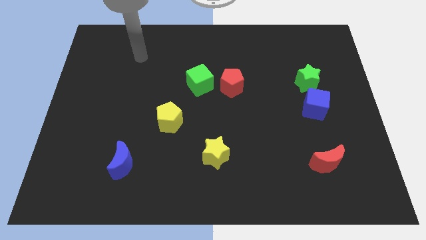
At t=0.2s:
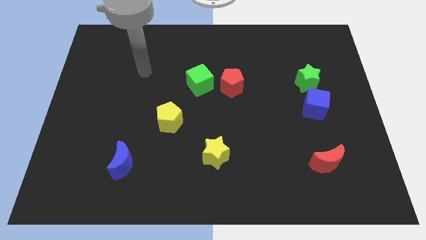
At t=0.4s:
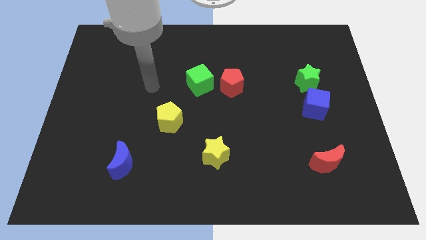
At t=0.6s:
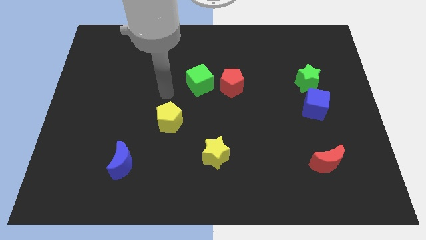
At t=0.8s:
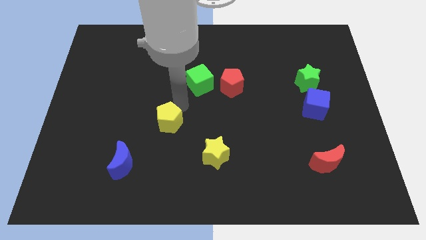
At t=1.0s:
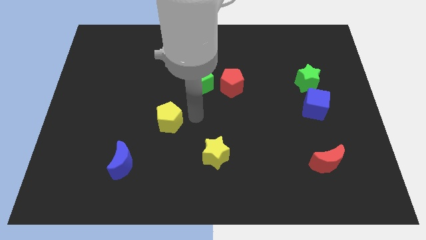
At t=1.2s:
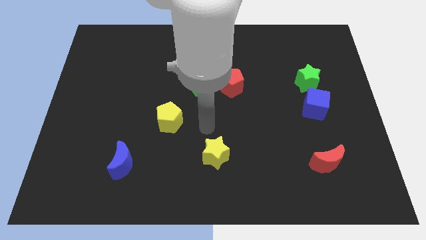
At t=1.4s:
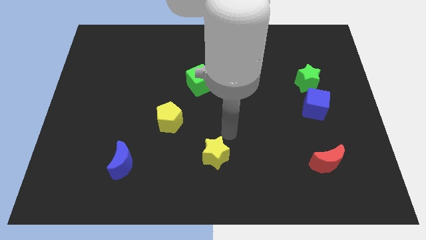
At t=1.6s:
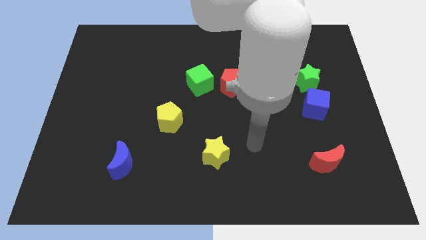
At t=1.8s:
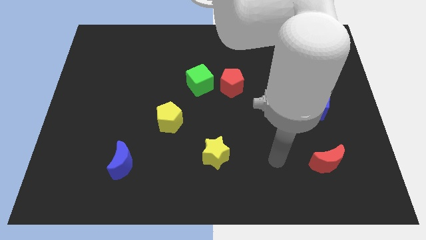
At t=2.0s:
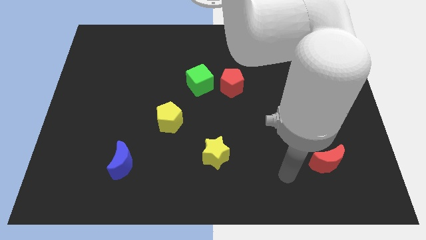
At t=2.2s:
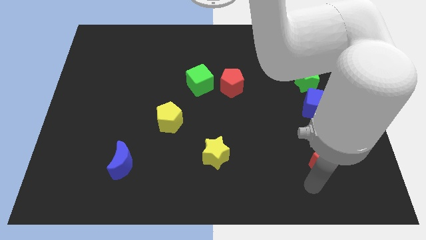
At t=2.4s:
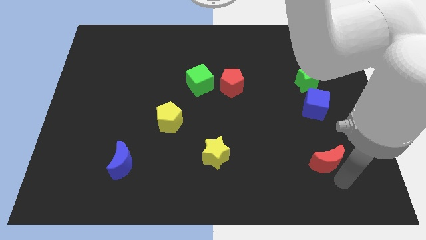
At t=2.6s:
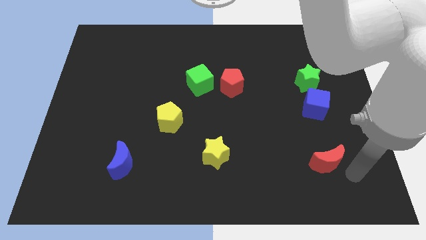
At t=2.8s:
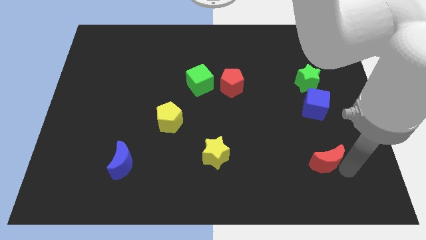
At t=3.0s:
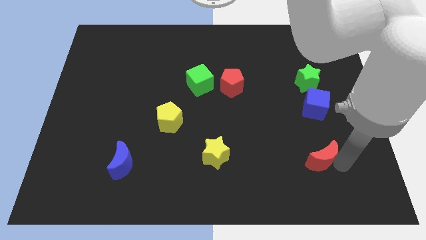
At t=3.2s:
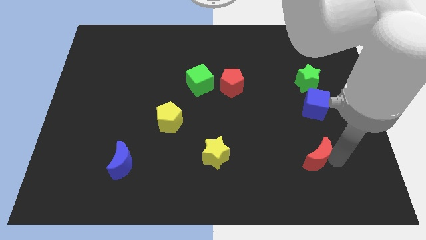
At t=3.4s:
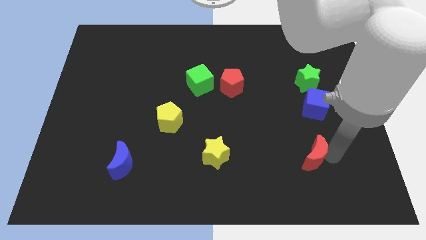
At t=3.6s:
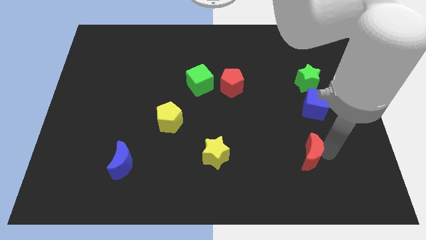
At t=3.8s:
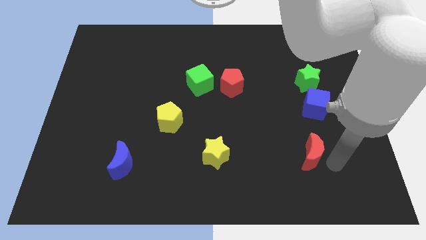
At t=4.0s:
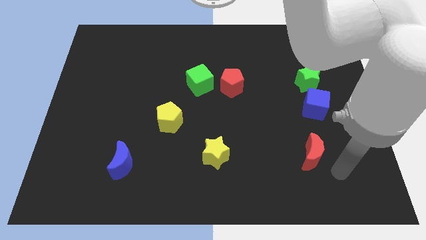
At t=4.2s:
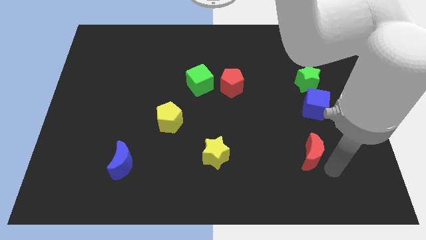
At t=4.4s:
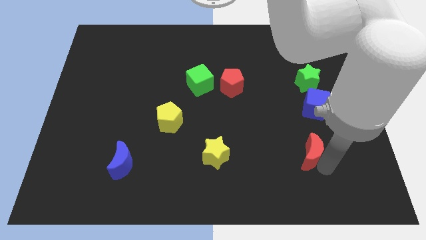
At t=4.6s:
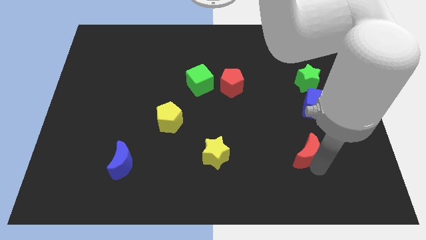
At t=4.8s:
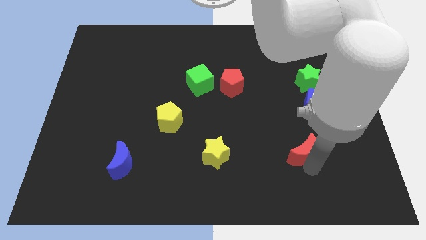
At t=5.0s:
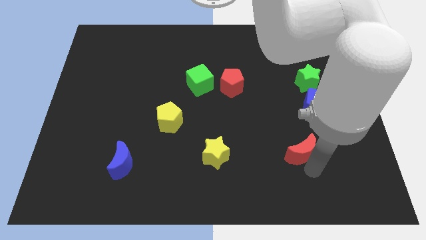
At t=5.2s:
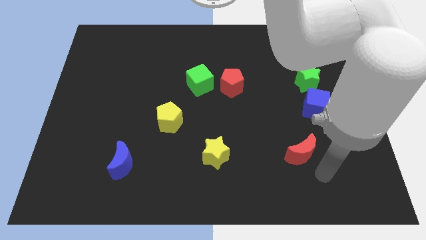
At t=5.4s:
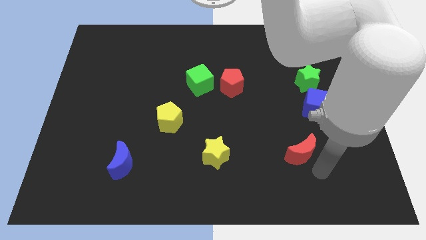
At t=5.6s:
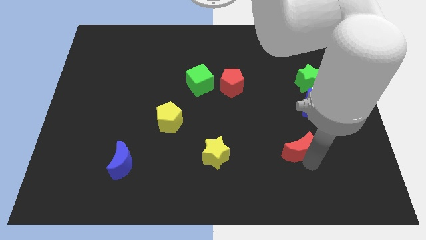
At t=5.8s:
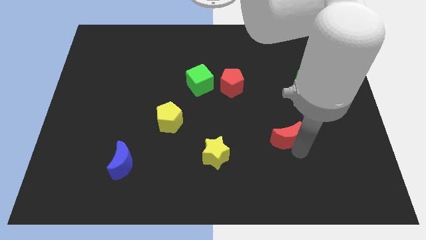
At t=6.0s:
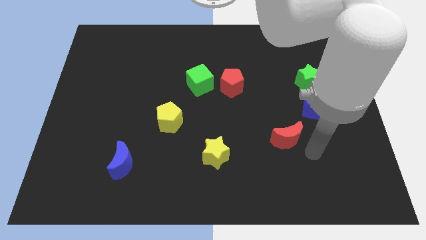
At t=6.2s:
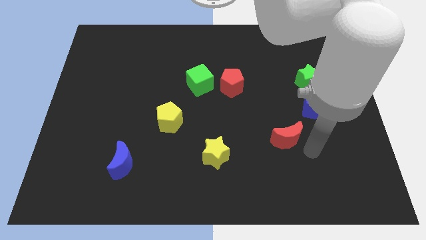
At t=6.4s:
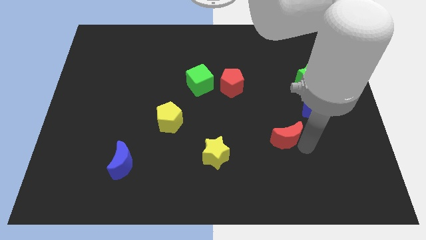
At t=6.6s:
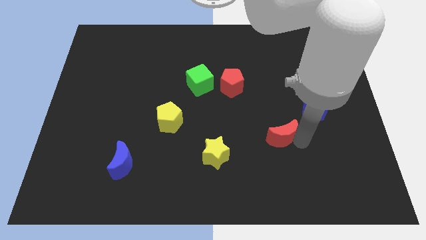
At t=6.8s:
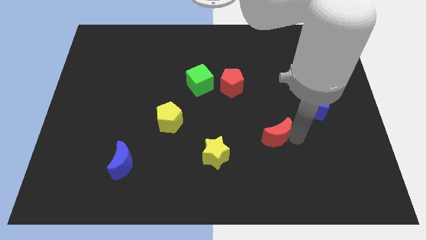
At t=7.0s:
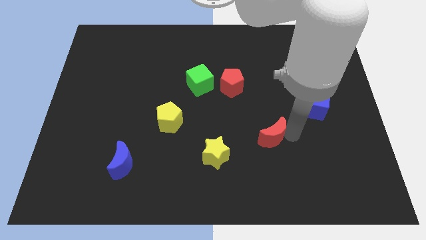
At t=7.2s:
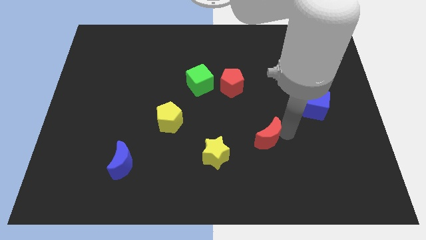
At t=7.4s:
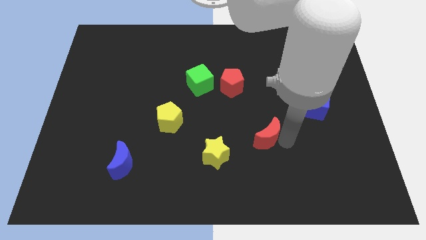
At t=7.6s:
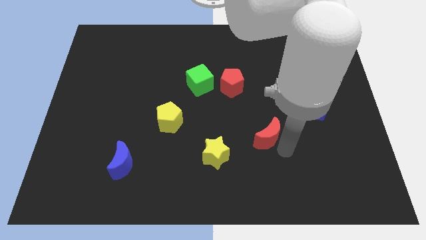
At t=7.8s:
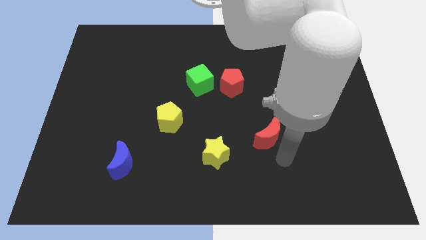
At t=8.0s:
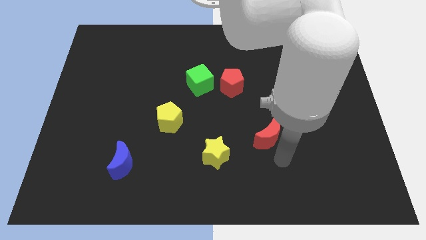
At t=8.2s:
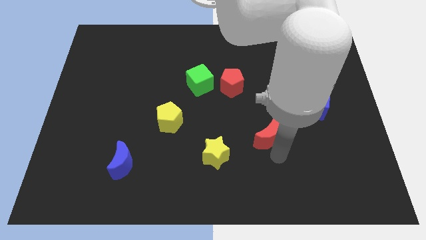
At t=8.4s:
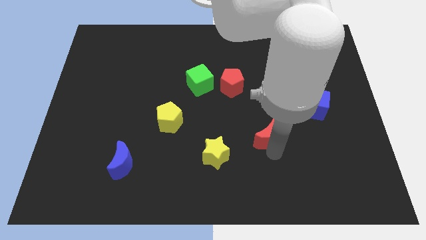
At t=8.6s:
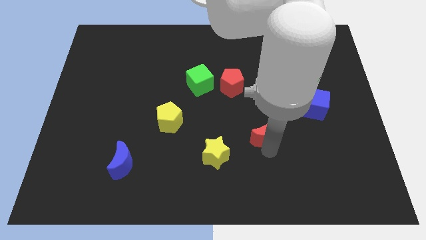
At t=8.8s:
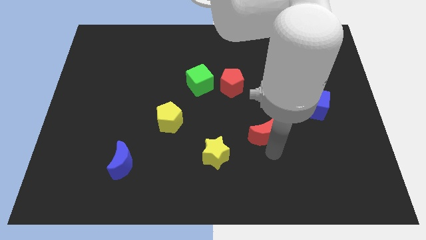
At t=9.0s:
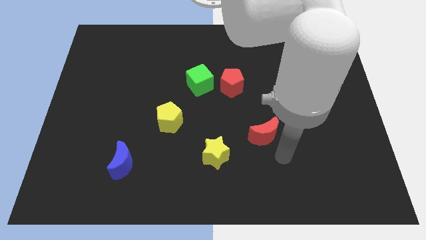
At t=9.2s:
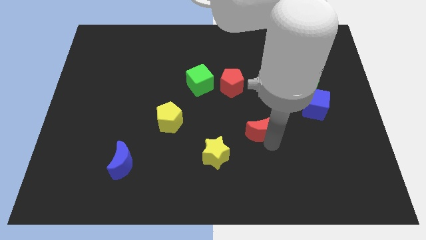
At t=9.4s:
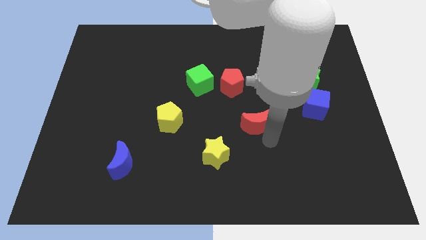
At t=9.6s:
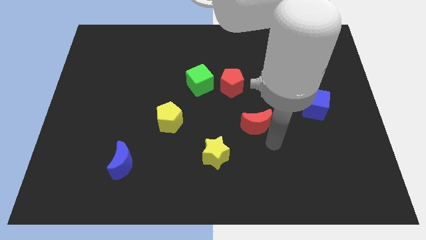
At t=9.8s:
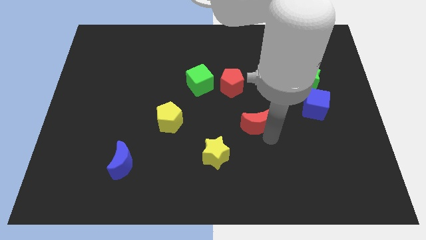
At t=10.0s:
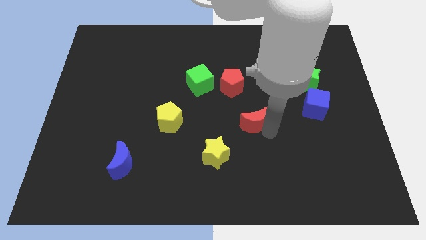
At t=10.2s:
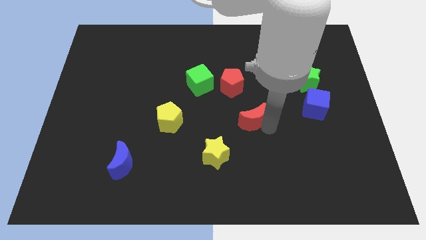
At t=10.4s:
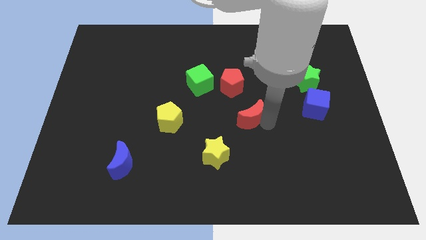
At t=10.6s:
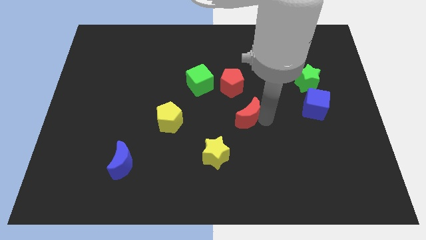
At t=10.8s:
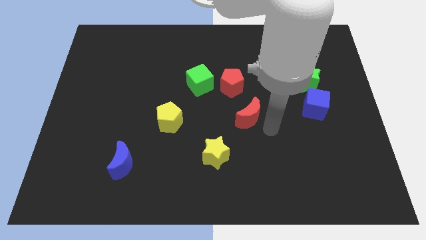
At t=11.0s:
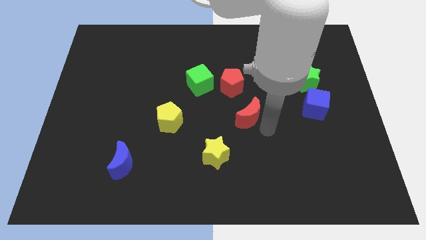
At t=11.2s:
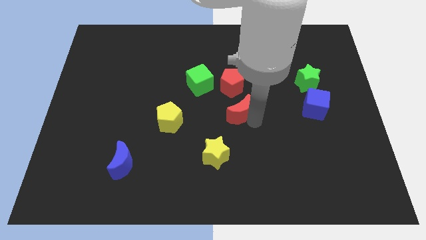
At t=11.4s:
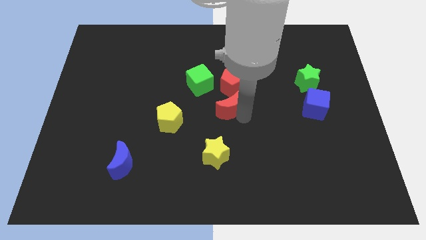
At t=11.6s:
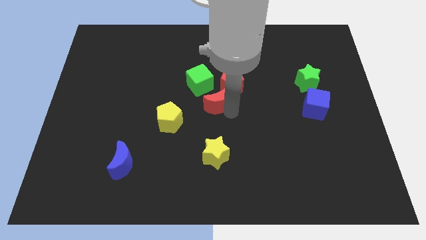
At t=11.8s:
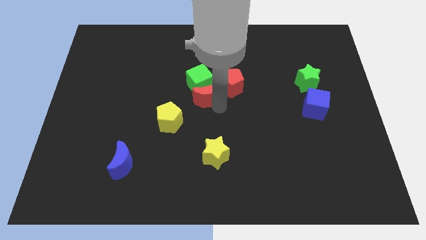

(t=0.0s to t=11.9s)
move the red moon towards the green cube

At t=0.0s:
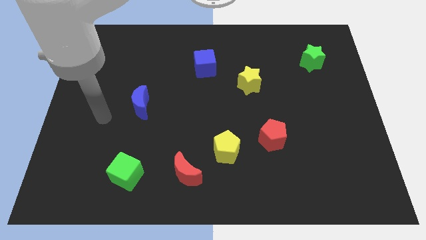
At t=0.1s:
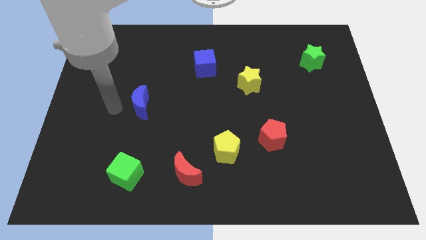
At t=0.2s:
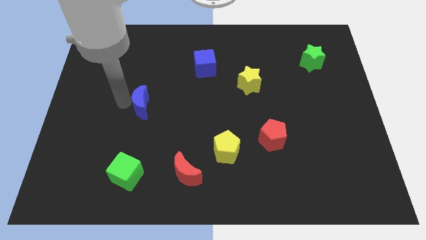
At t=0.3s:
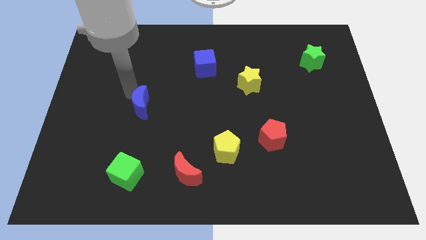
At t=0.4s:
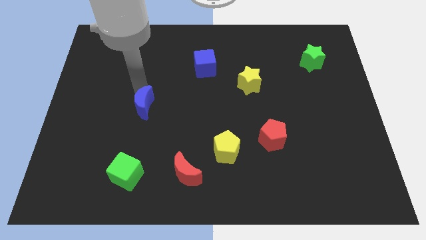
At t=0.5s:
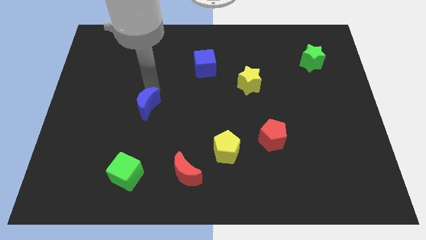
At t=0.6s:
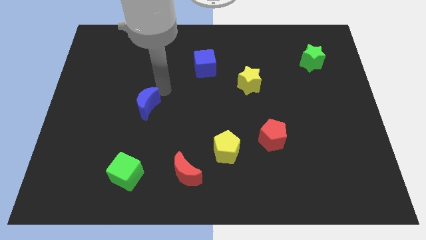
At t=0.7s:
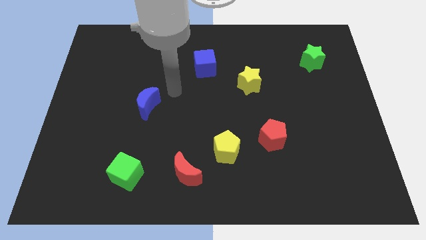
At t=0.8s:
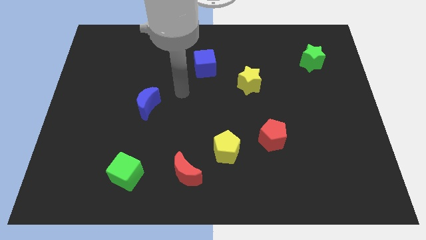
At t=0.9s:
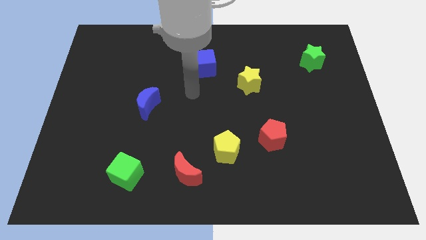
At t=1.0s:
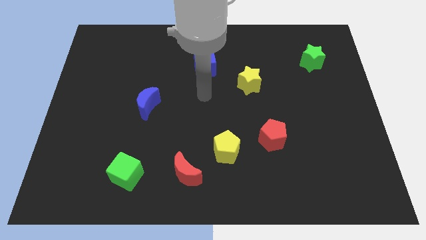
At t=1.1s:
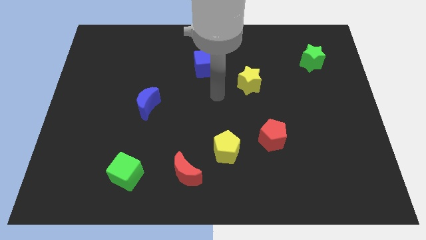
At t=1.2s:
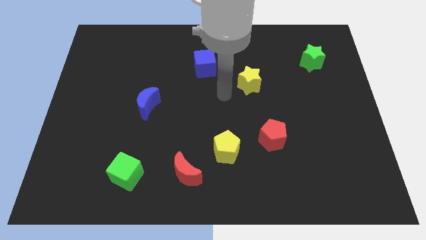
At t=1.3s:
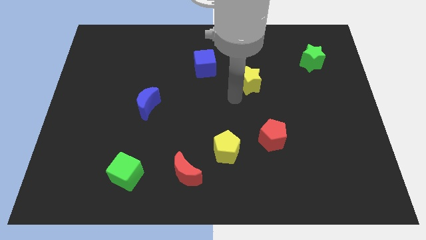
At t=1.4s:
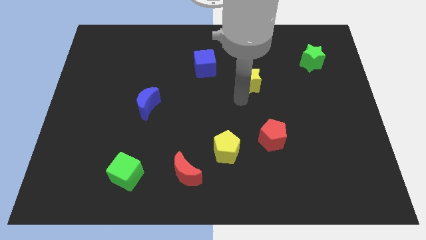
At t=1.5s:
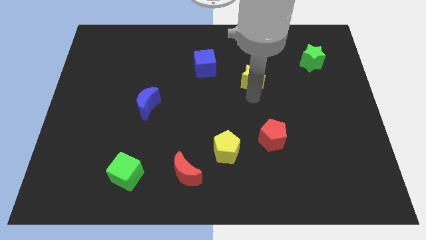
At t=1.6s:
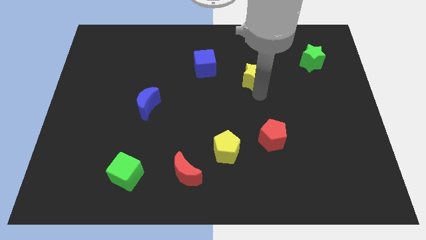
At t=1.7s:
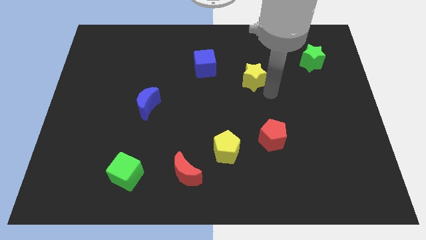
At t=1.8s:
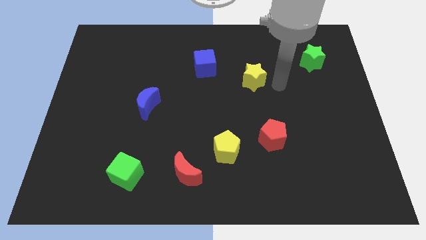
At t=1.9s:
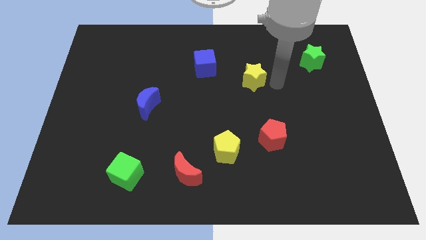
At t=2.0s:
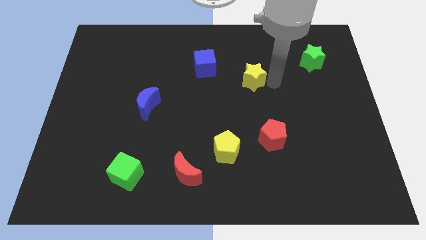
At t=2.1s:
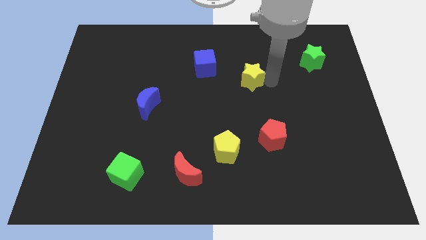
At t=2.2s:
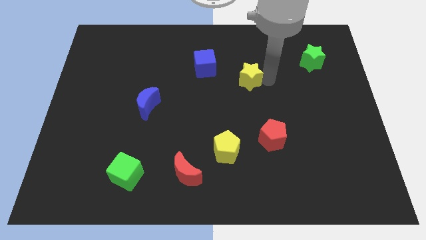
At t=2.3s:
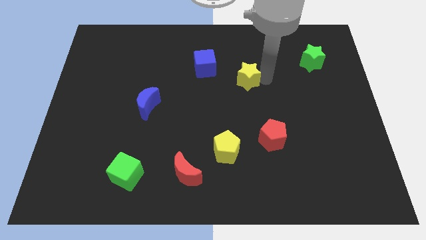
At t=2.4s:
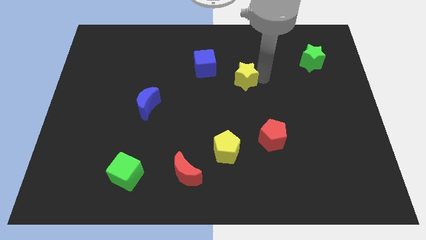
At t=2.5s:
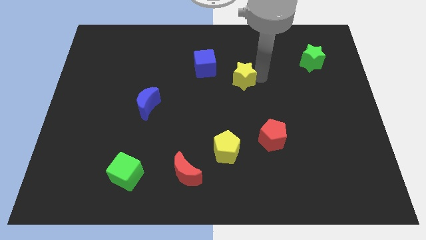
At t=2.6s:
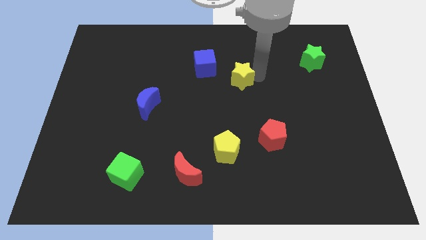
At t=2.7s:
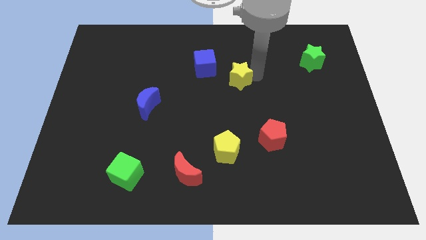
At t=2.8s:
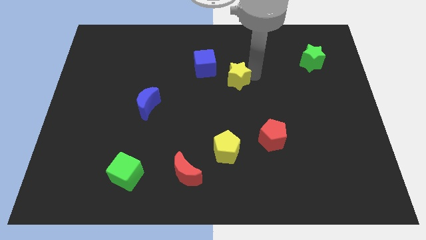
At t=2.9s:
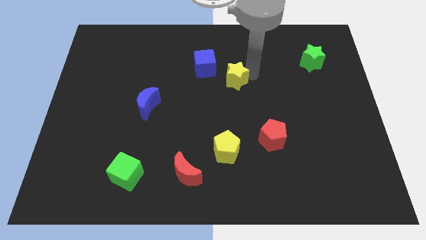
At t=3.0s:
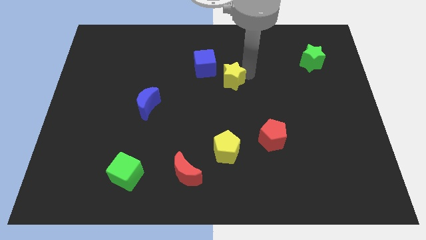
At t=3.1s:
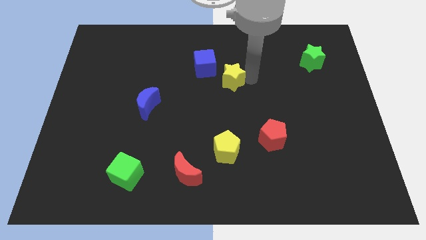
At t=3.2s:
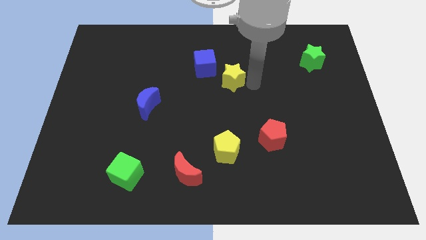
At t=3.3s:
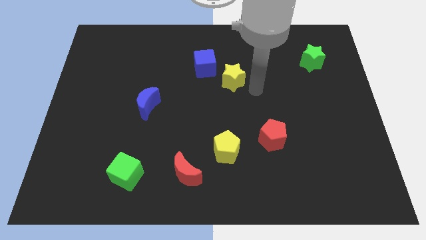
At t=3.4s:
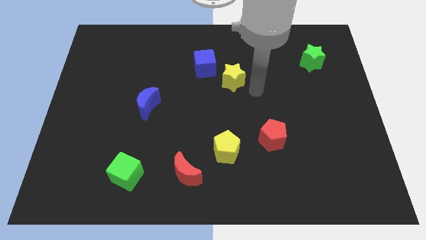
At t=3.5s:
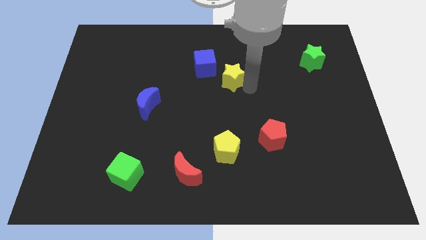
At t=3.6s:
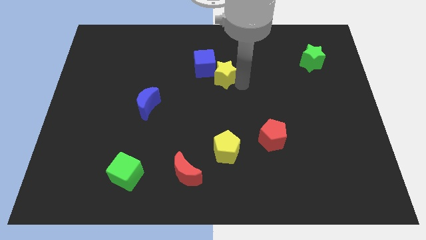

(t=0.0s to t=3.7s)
put the yellow star close to the blue cube
